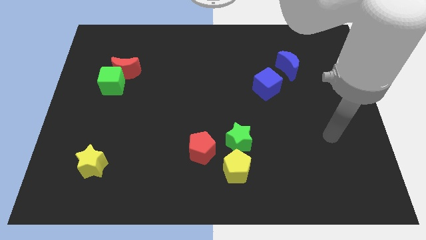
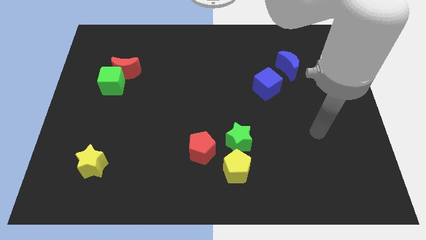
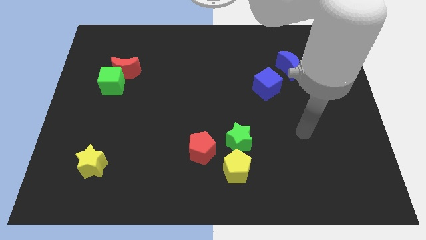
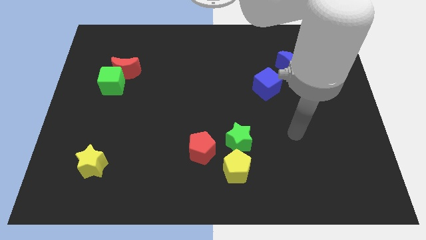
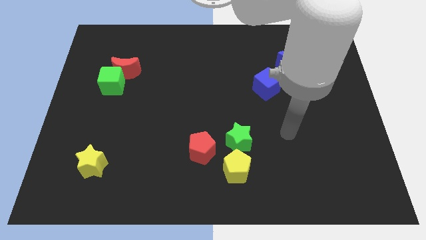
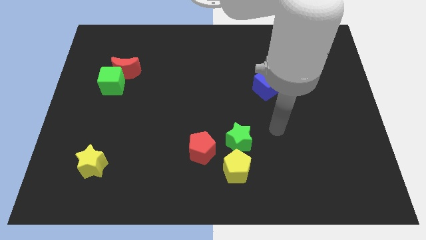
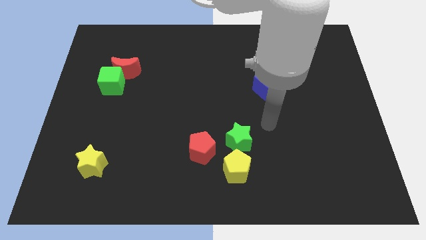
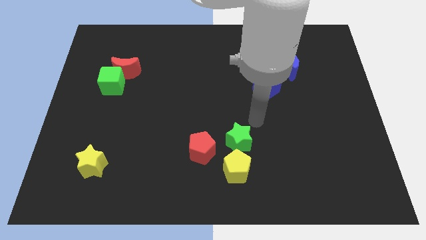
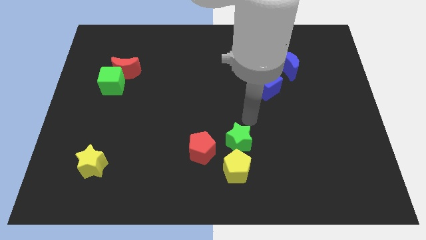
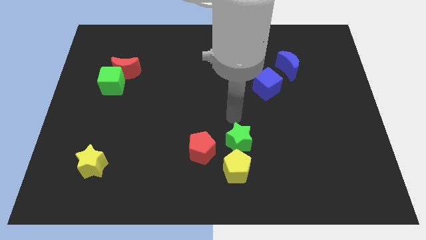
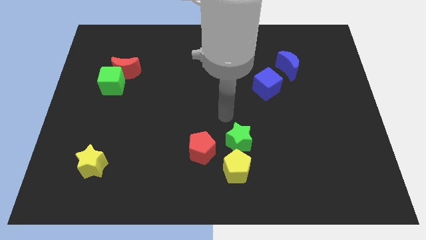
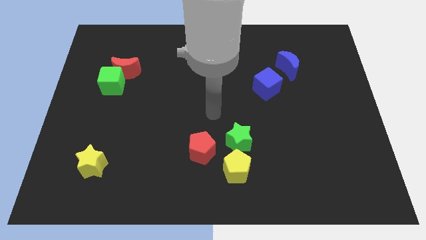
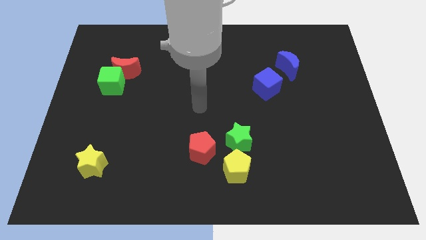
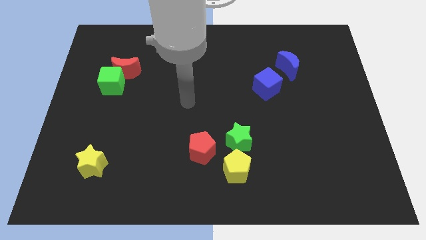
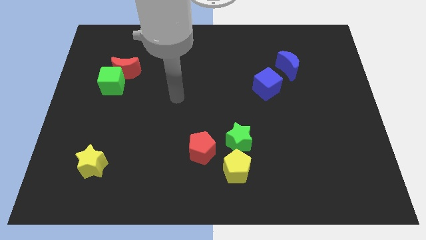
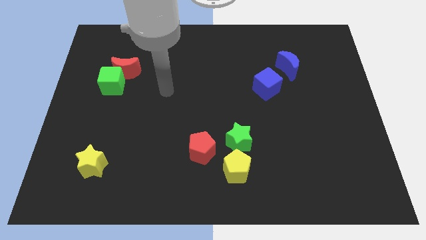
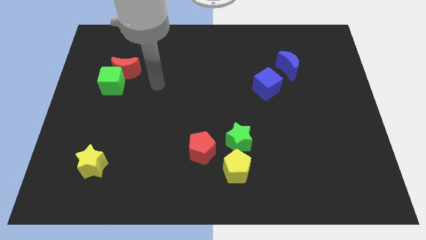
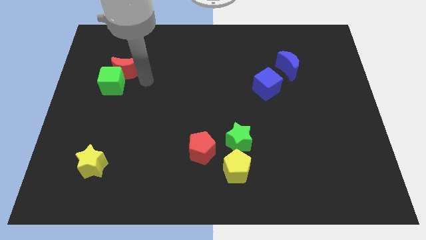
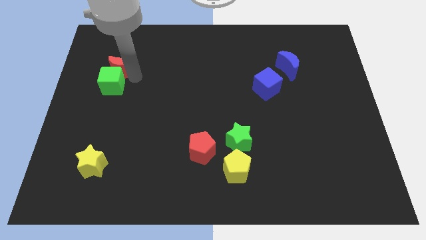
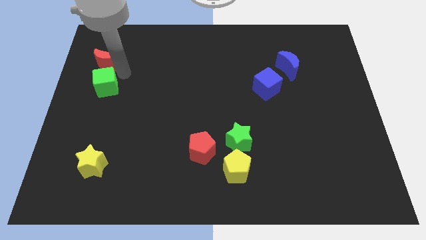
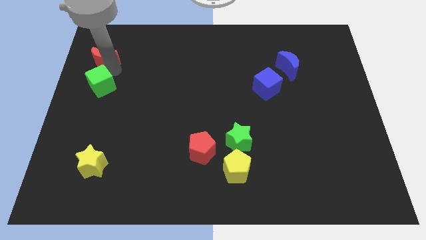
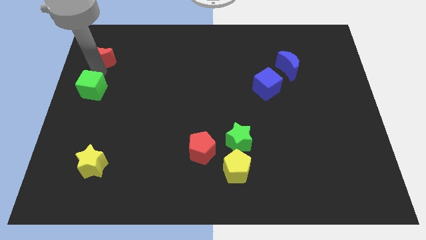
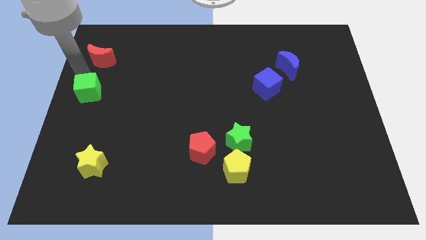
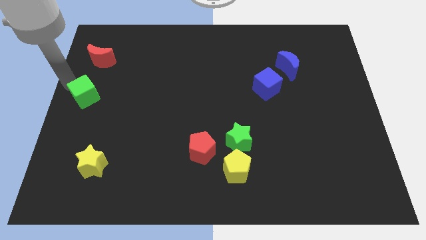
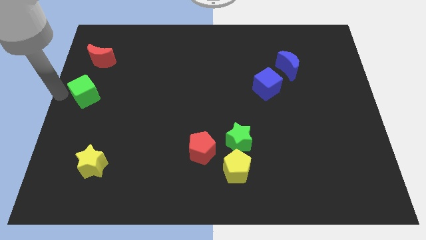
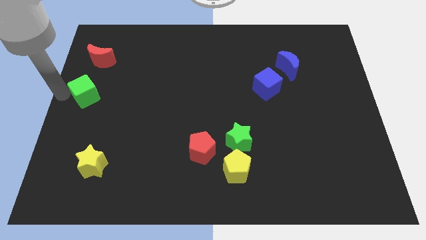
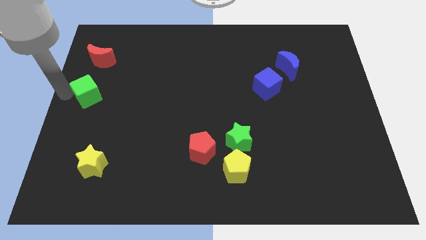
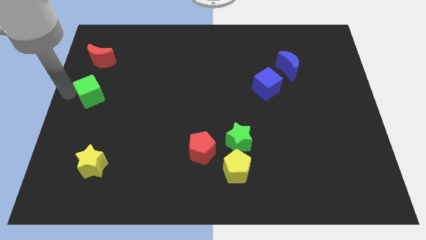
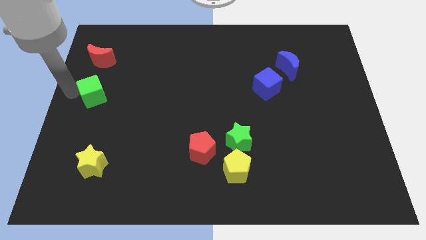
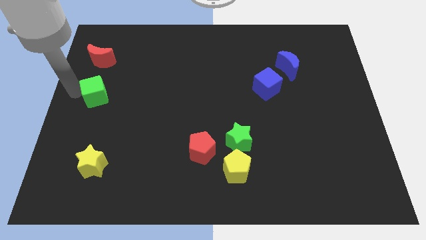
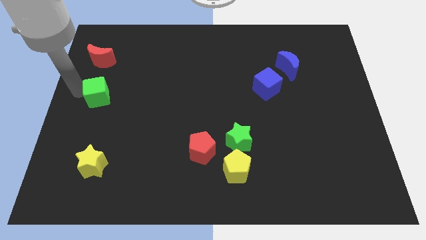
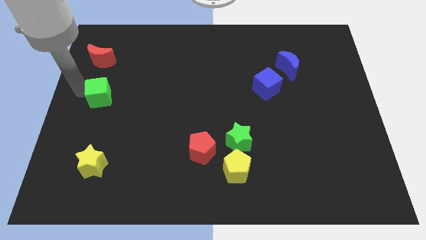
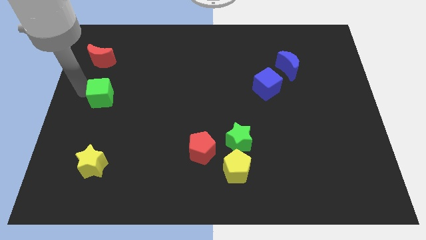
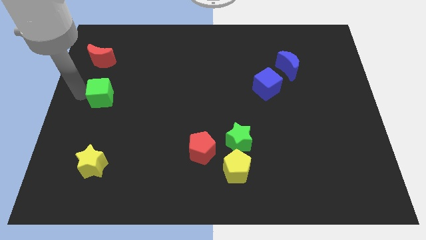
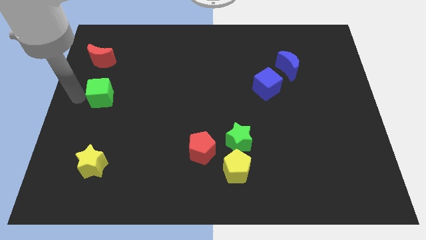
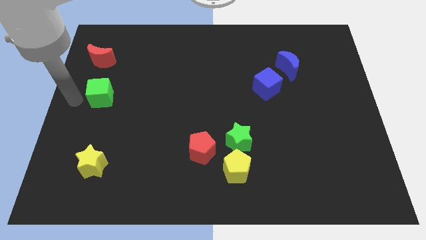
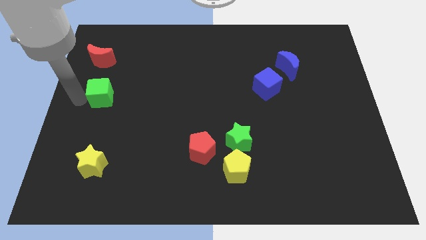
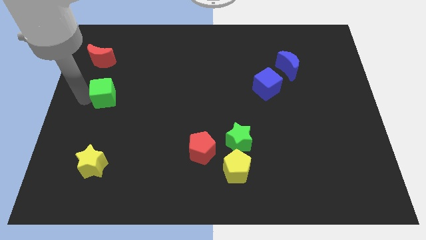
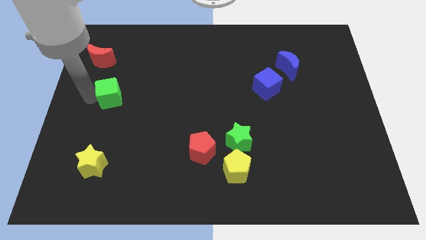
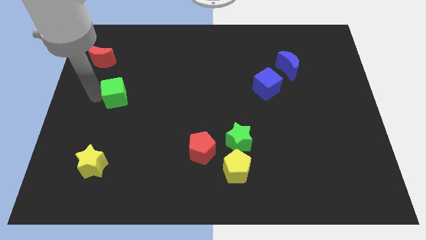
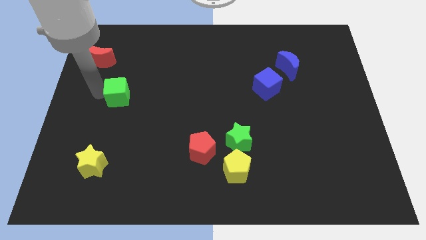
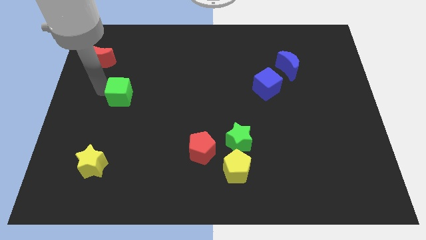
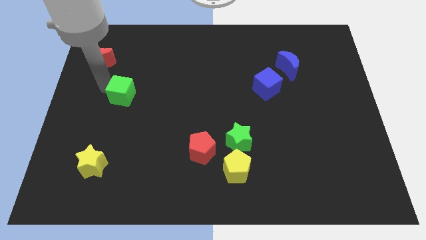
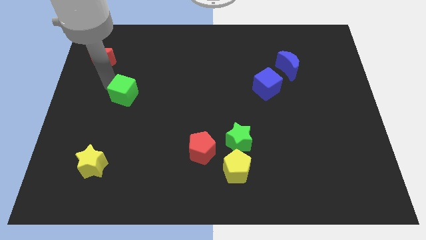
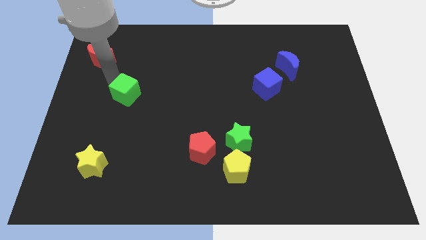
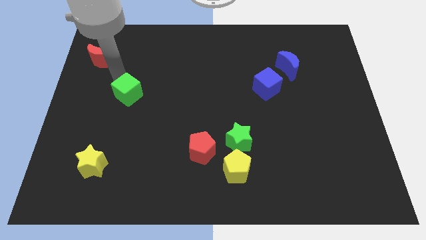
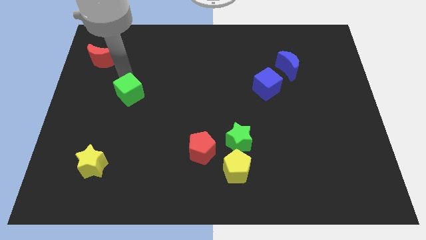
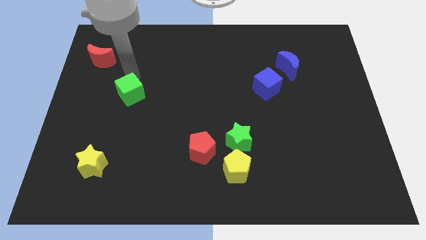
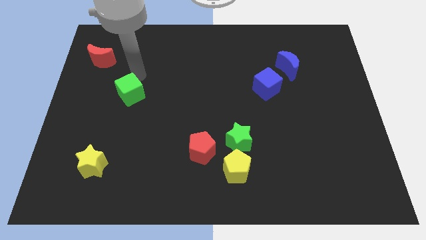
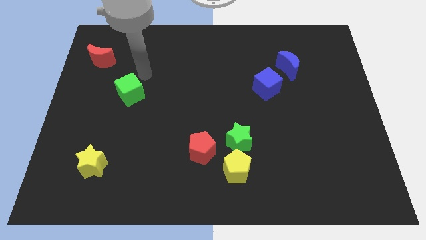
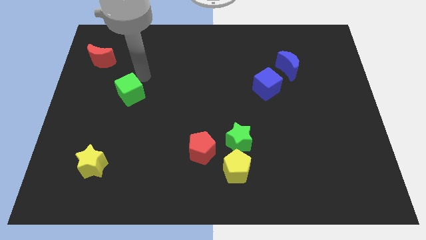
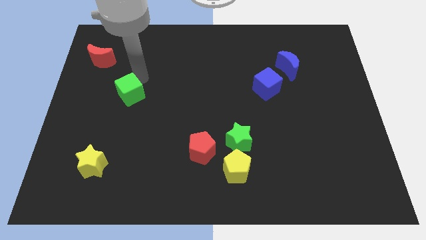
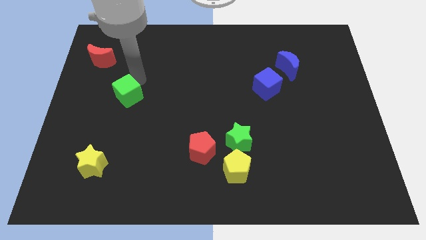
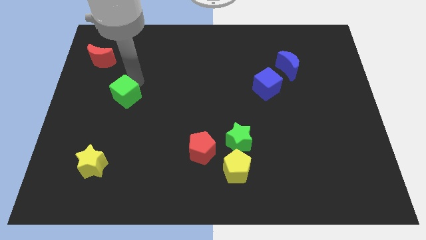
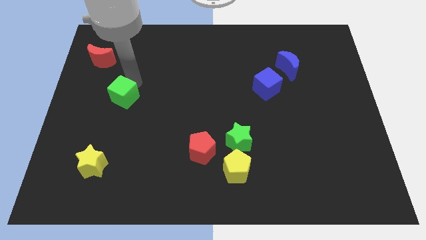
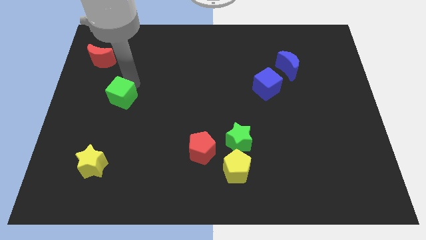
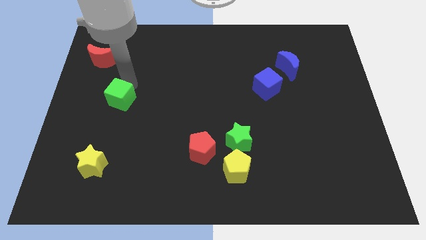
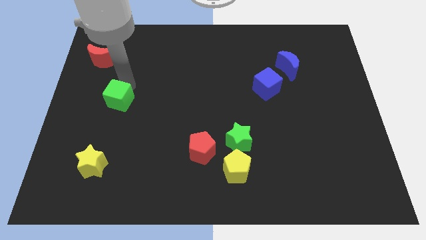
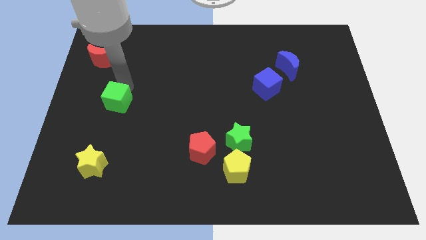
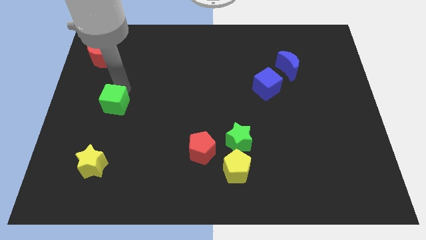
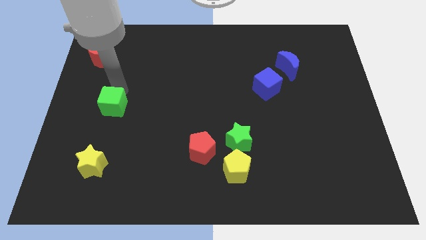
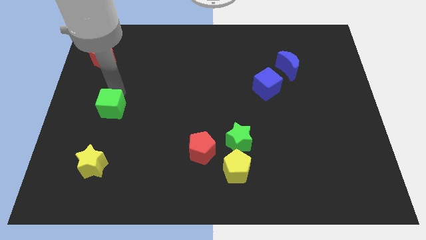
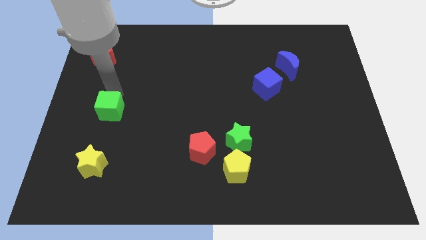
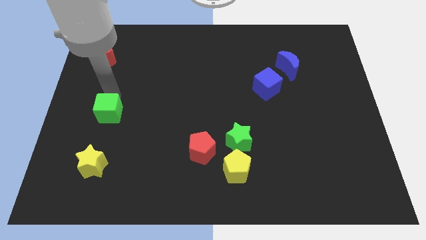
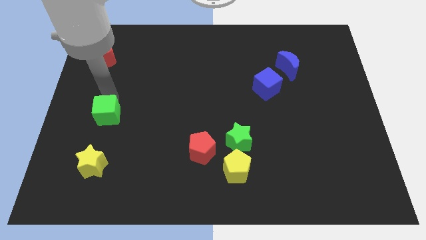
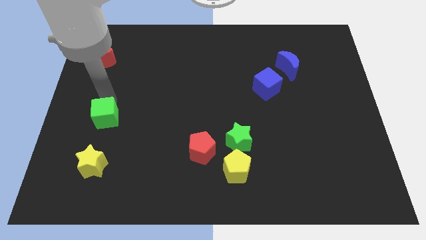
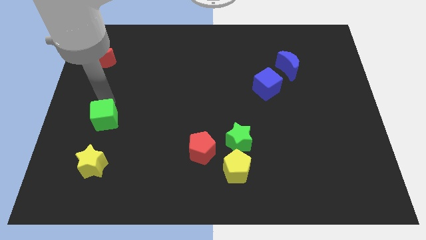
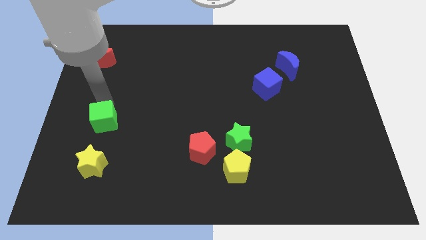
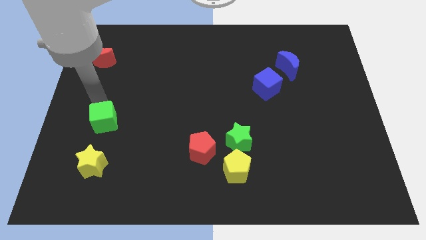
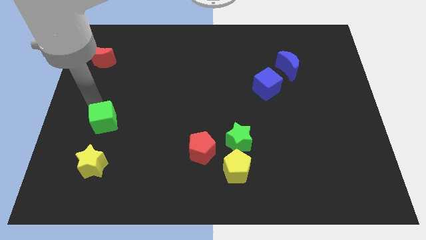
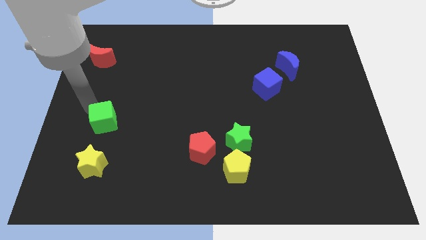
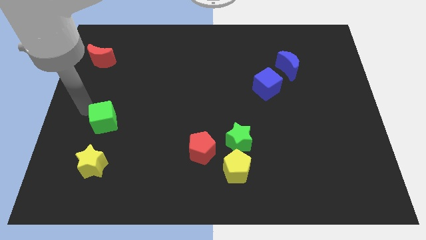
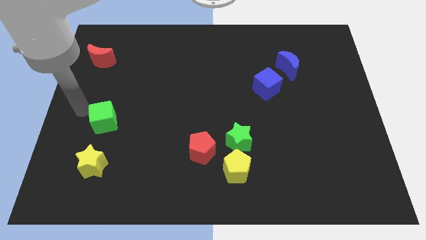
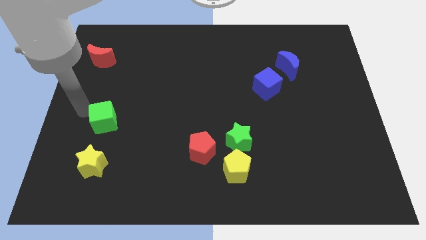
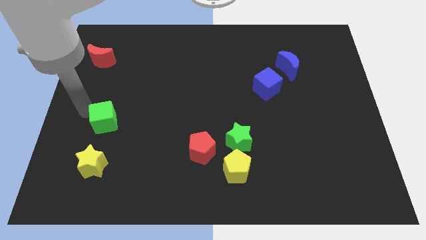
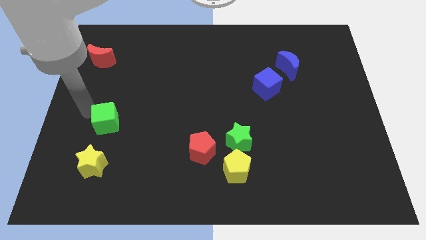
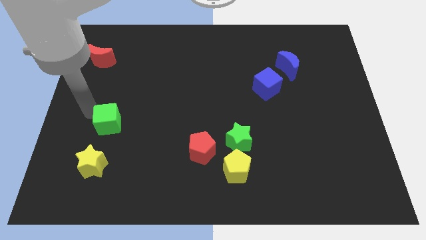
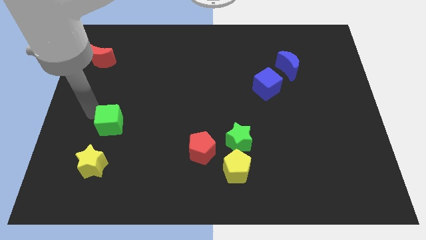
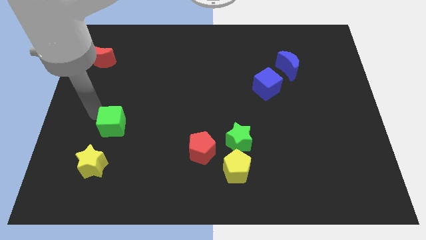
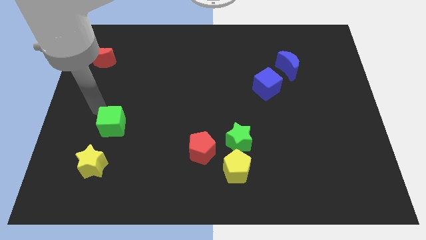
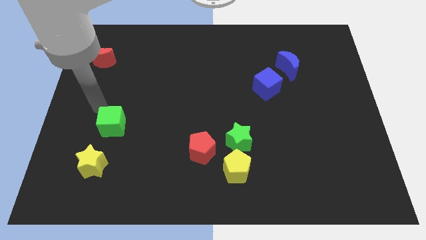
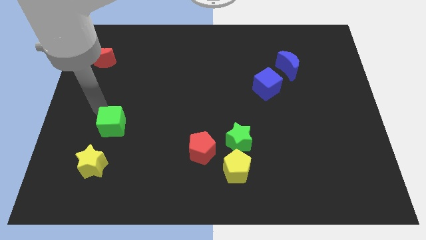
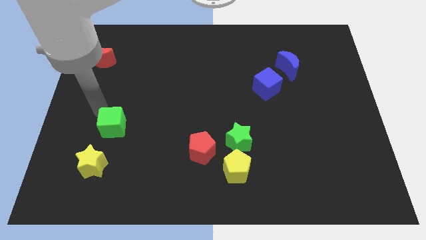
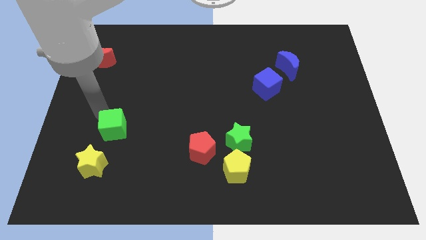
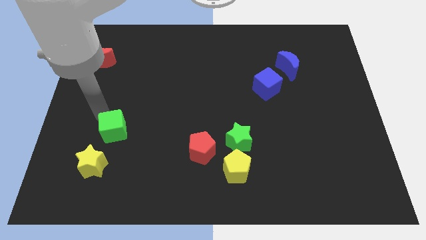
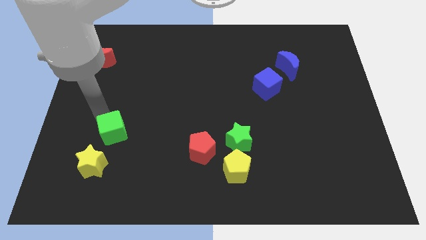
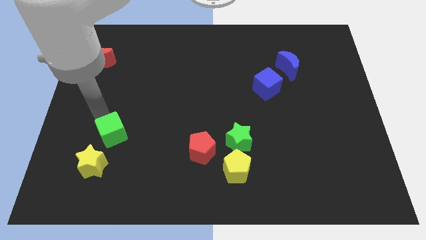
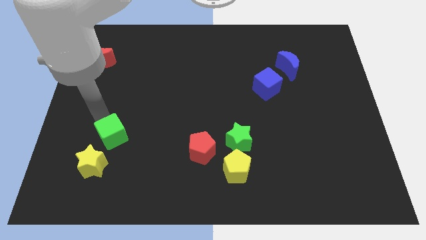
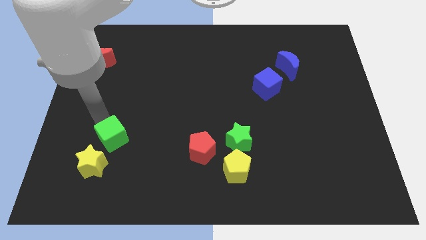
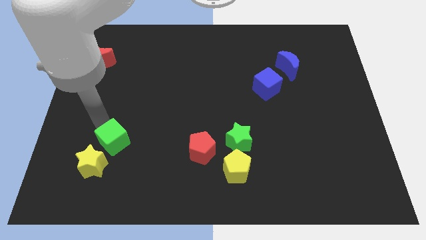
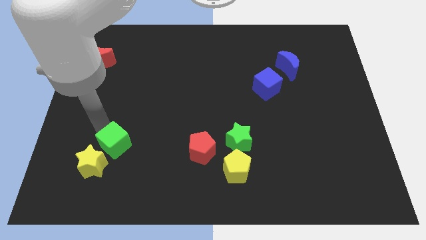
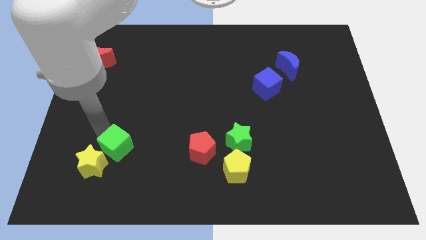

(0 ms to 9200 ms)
put the green cube just right of the yellow star
